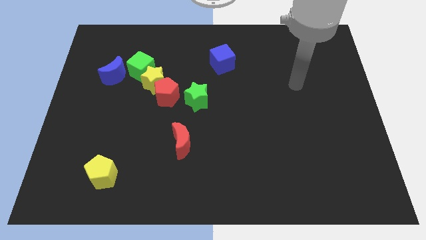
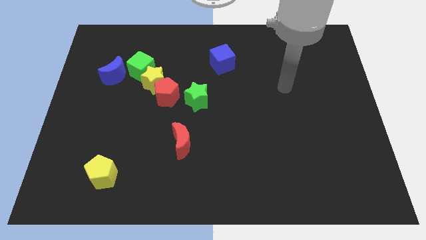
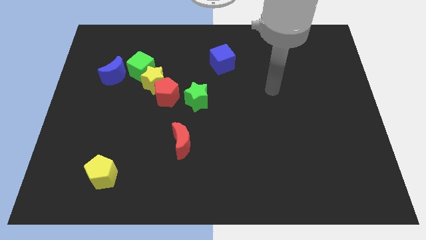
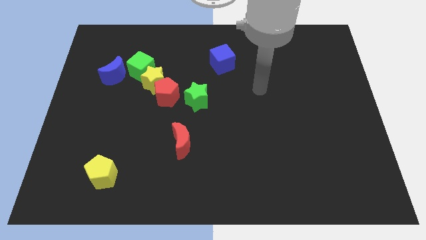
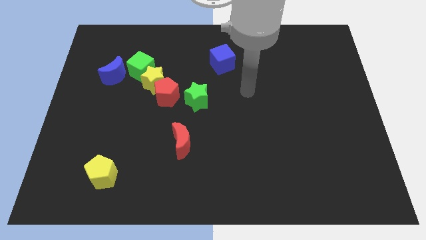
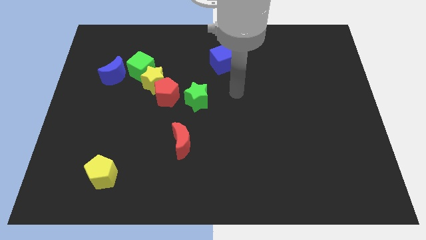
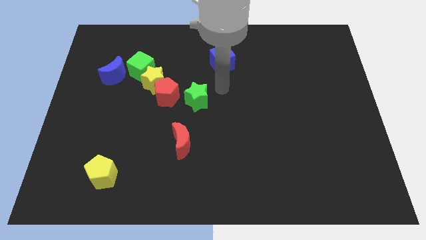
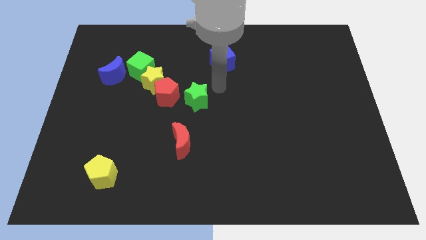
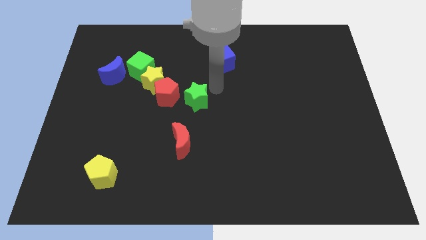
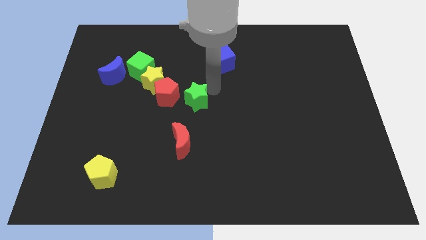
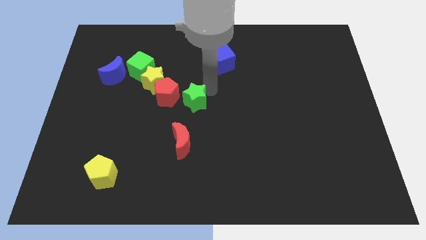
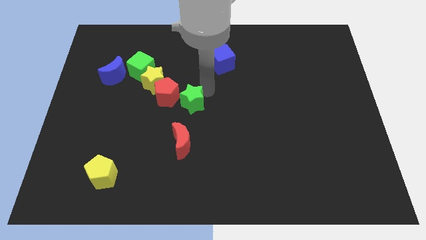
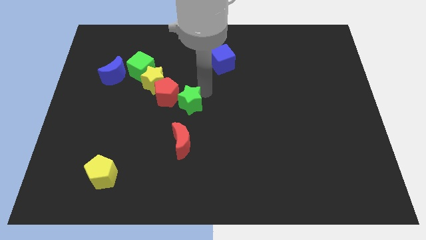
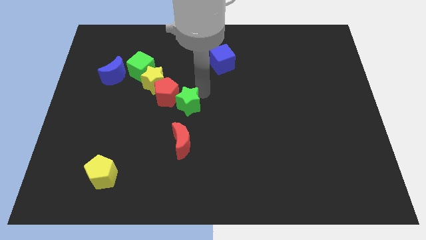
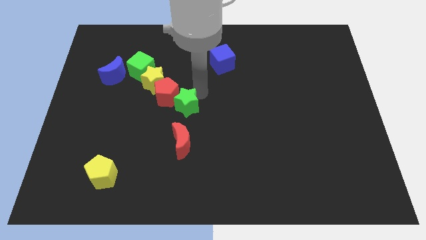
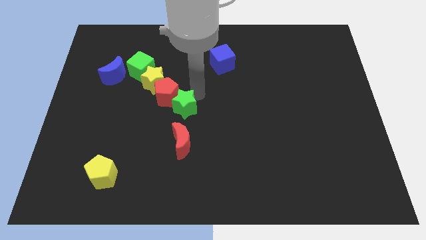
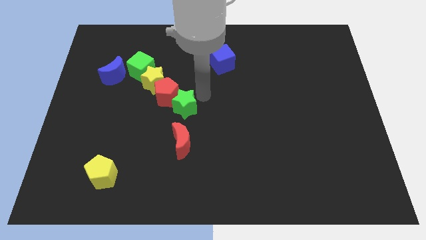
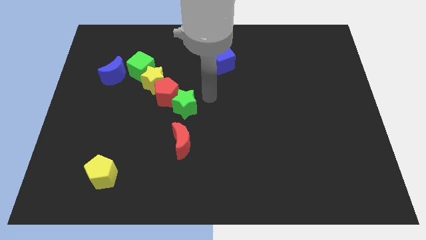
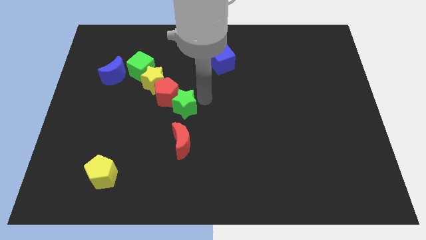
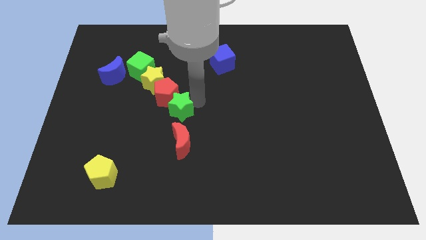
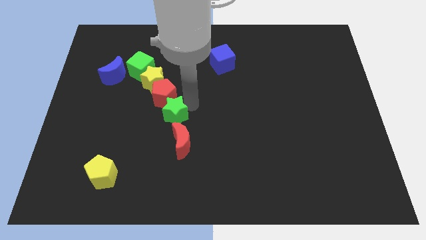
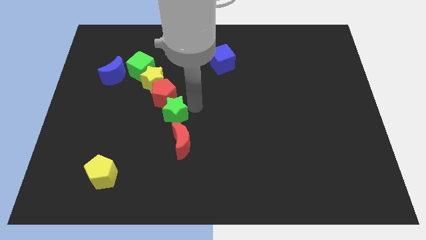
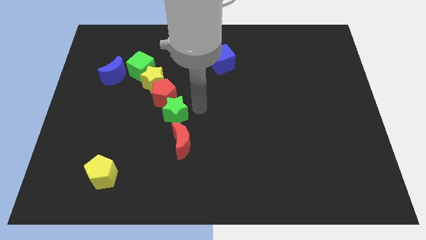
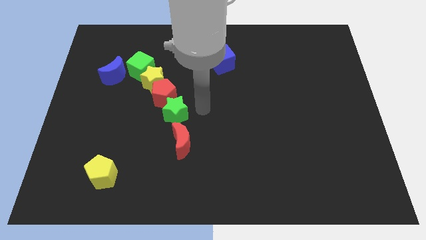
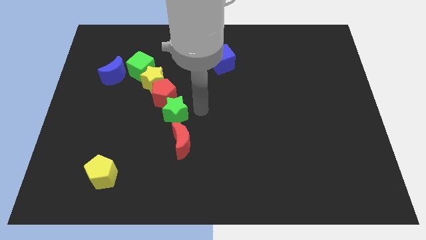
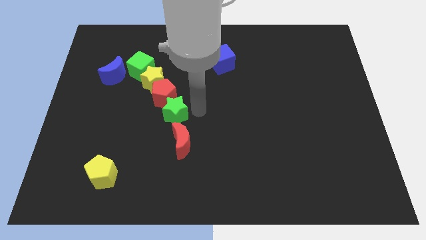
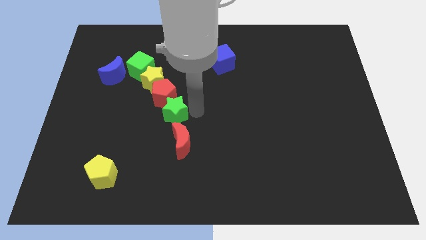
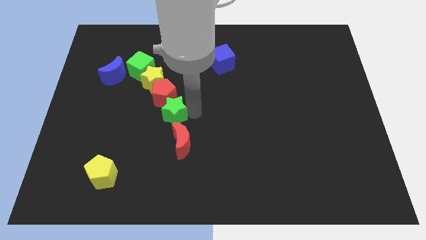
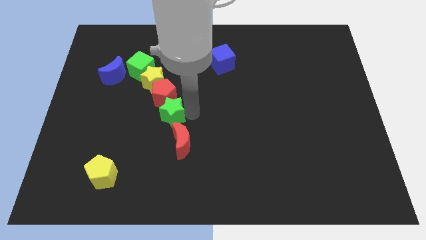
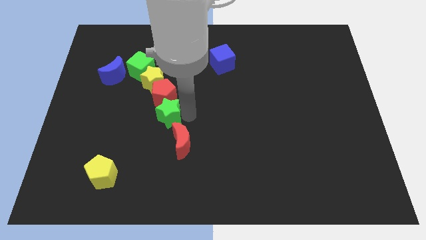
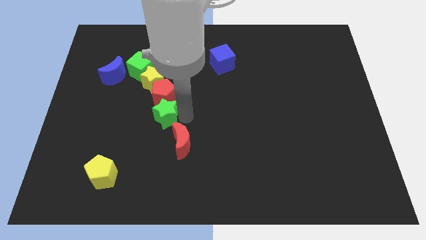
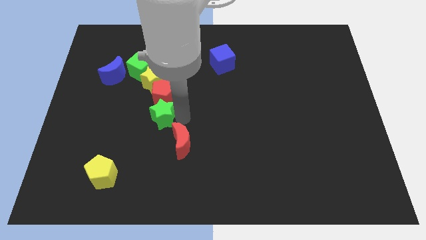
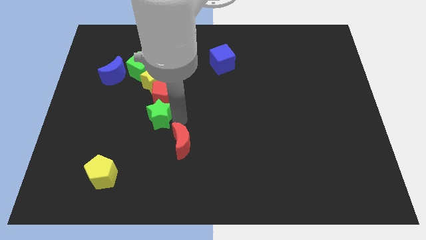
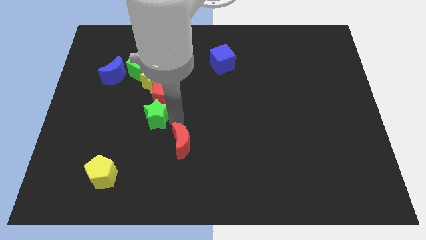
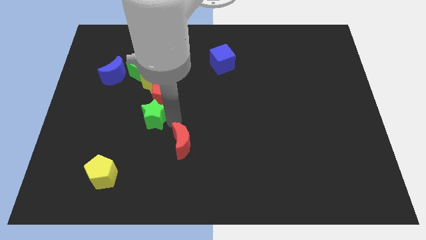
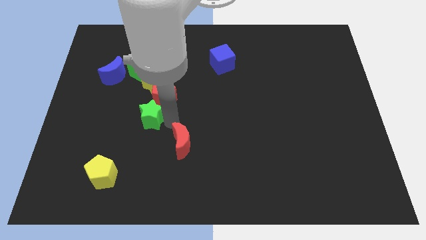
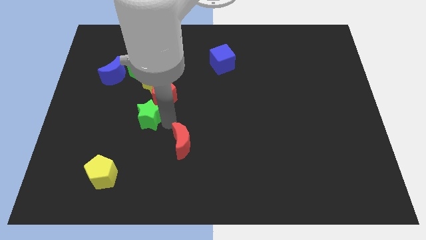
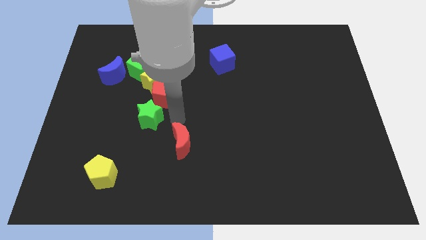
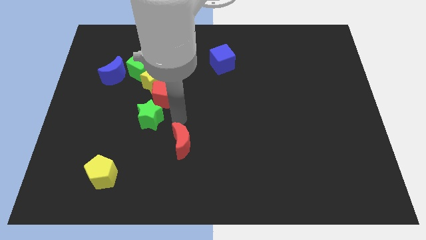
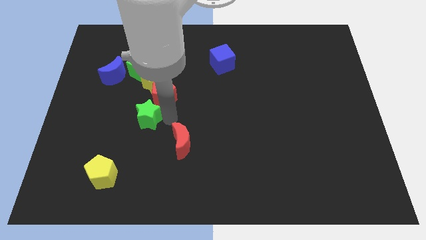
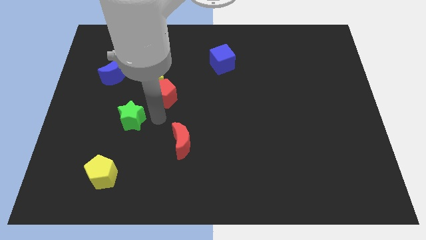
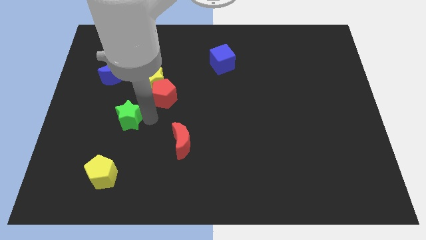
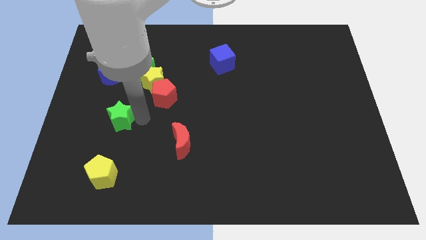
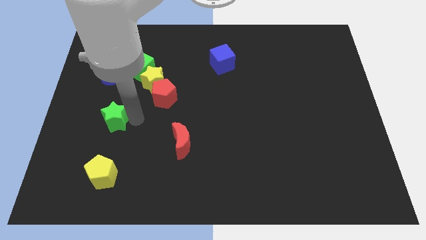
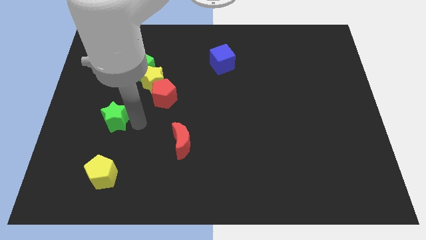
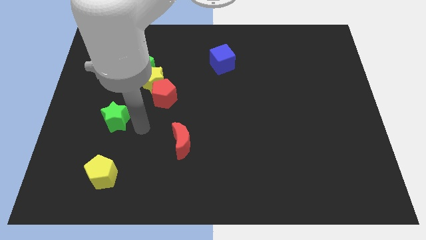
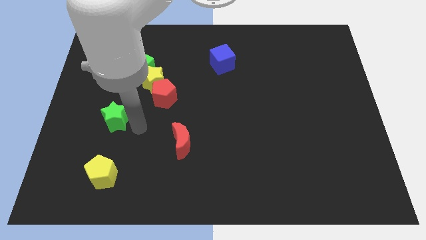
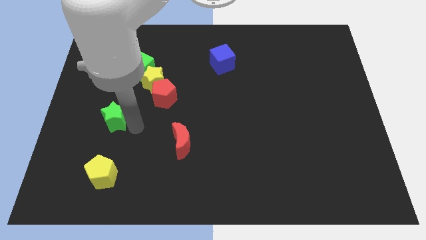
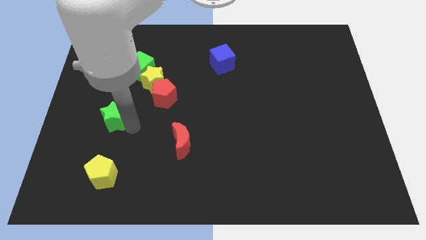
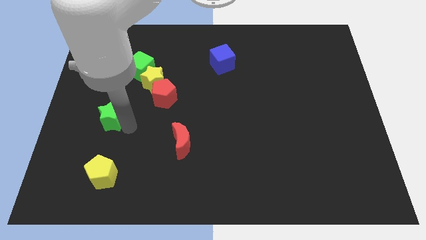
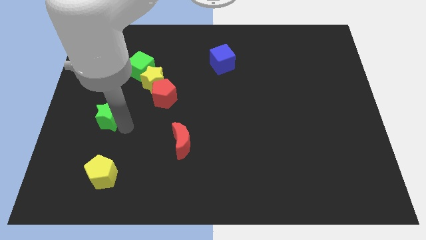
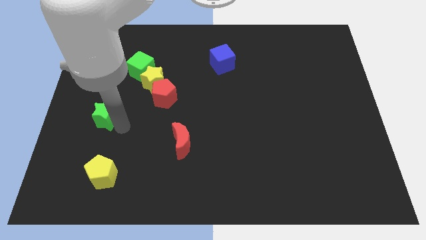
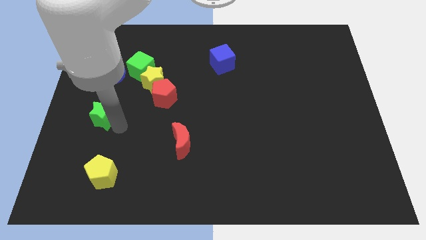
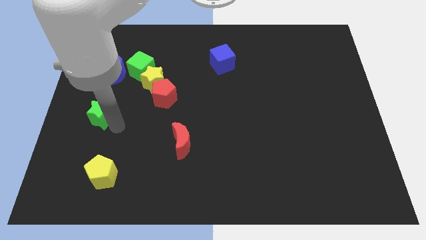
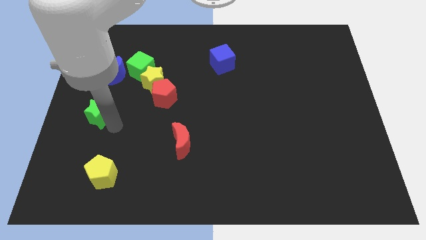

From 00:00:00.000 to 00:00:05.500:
move the green star to the left side

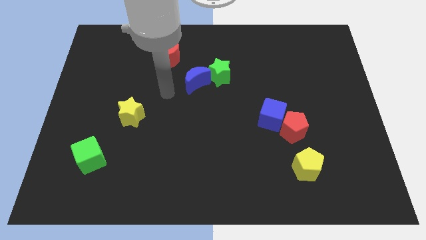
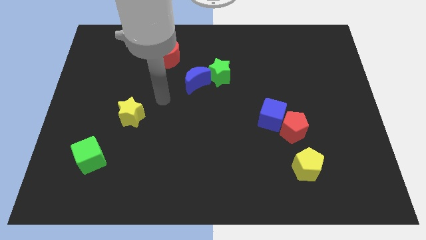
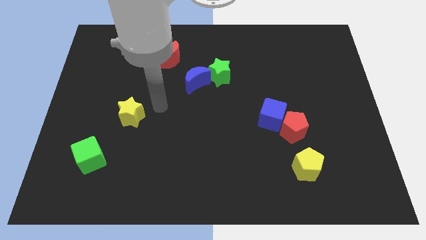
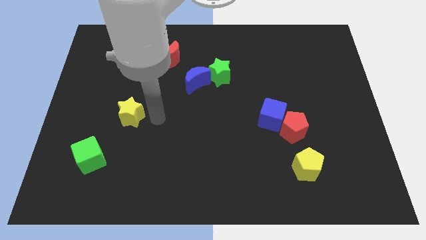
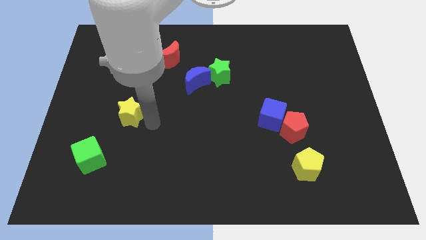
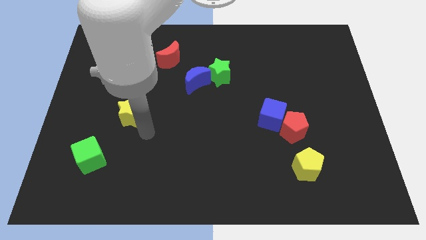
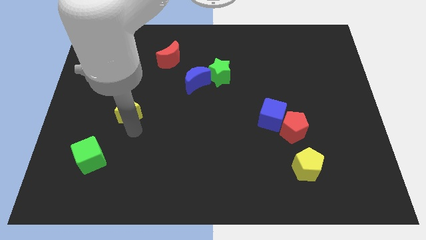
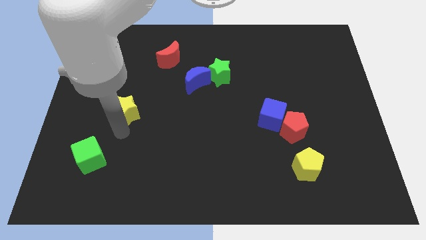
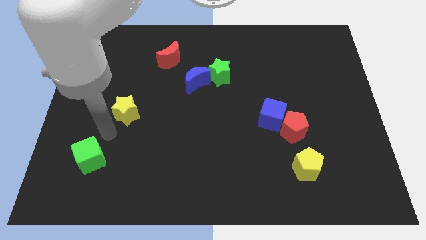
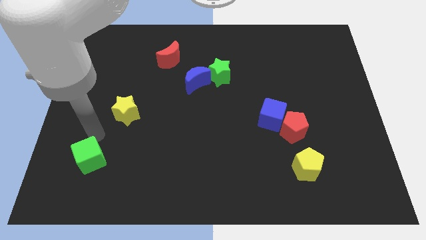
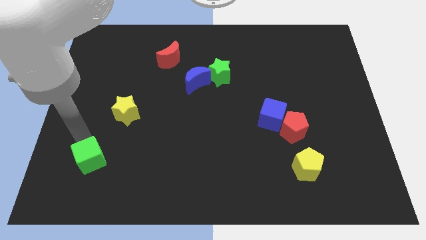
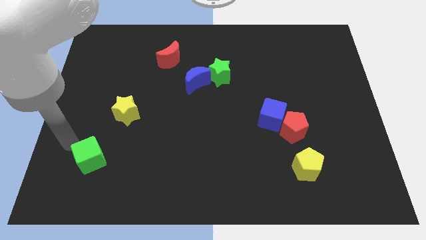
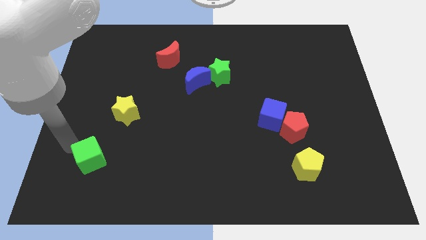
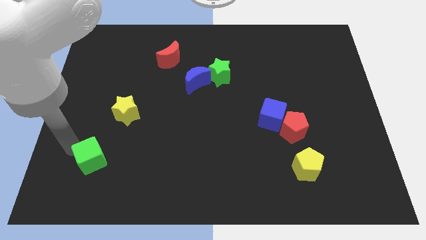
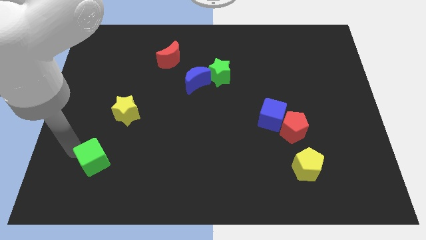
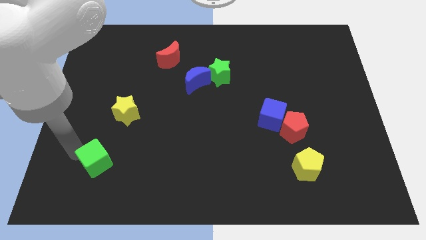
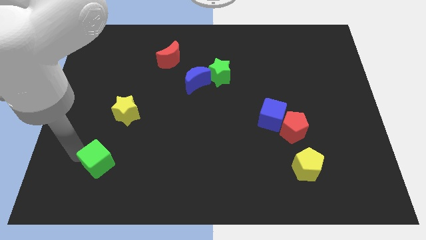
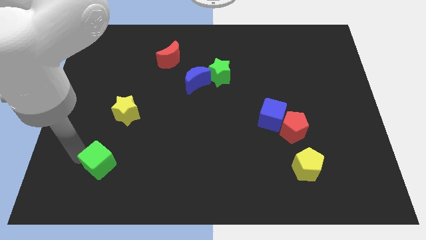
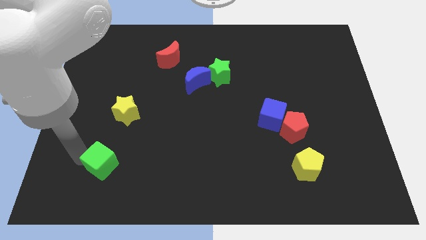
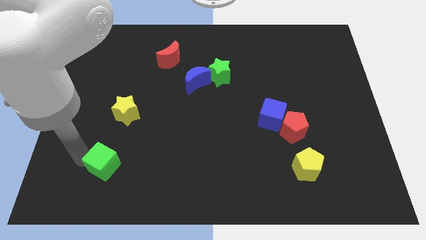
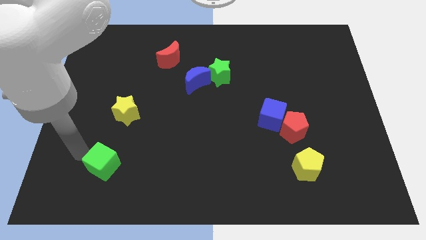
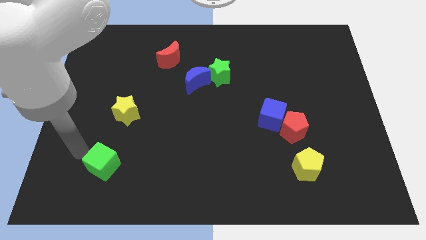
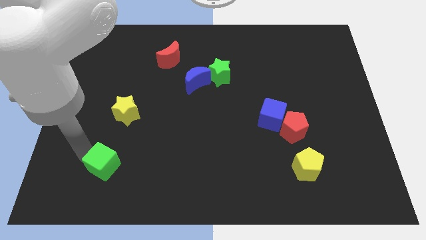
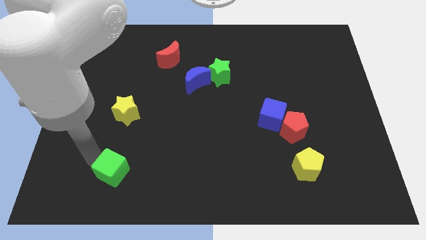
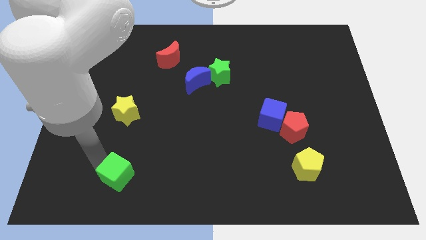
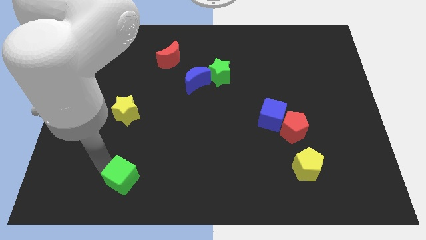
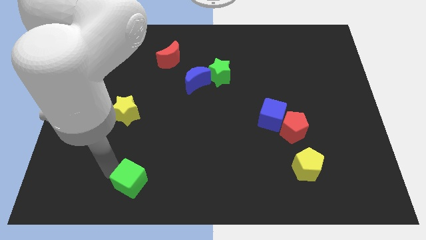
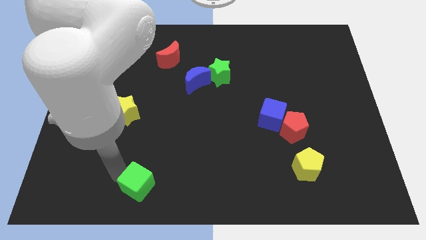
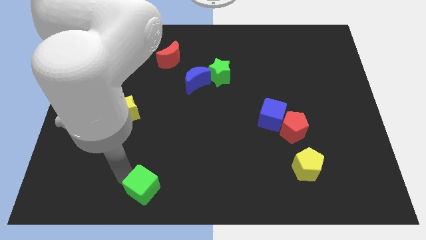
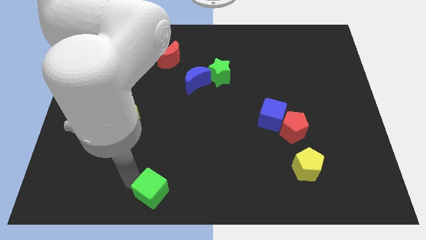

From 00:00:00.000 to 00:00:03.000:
slide the green cube to the bottom
